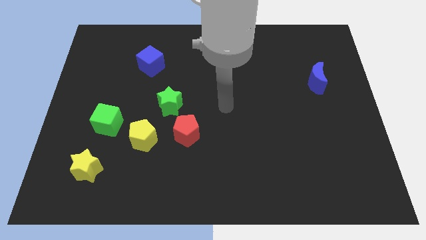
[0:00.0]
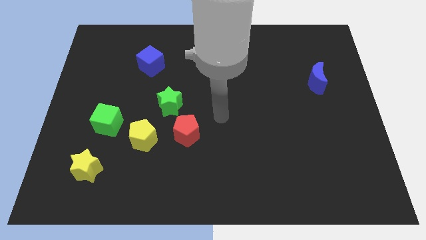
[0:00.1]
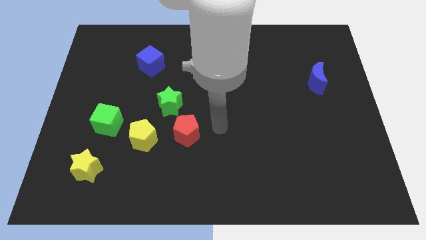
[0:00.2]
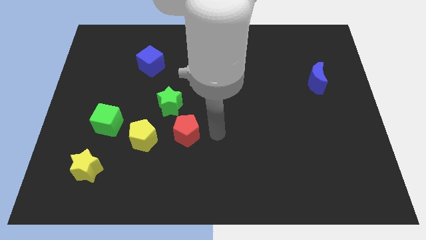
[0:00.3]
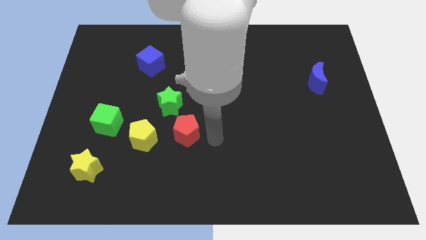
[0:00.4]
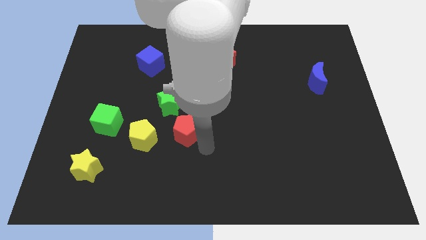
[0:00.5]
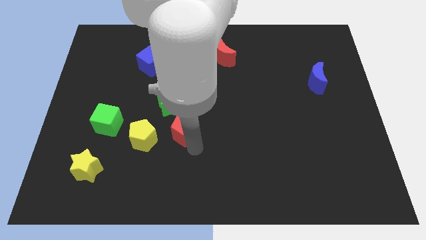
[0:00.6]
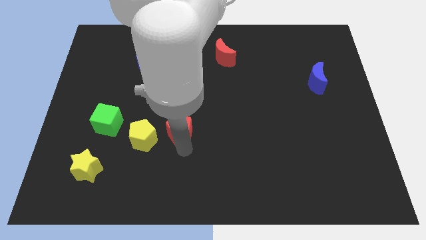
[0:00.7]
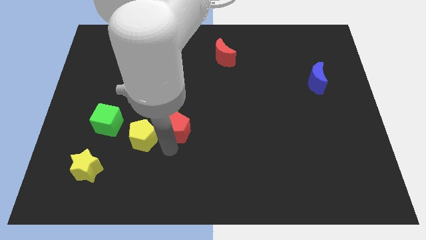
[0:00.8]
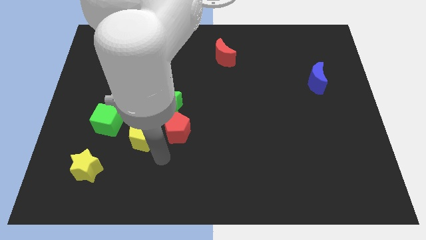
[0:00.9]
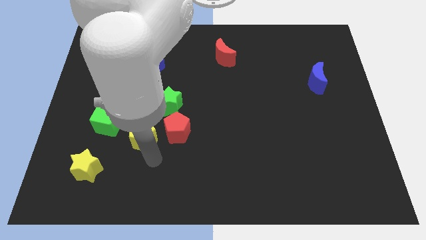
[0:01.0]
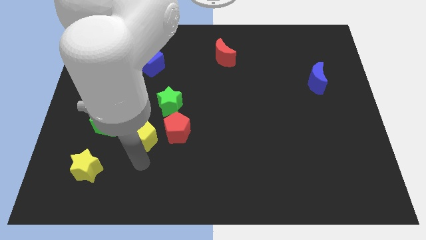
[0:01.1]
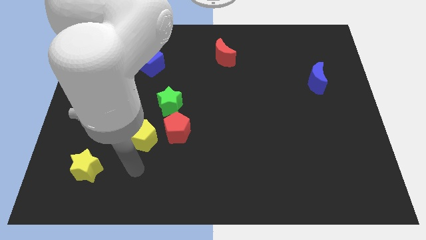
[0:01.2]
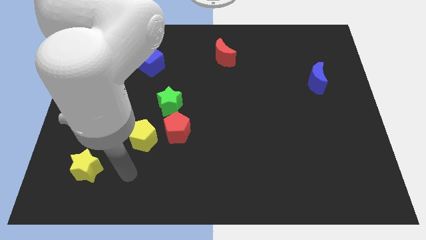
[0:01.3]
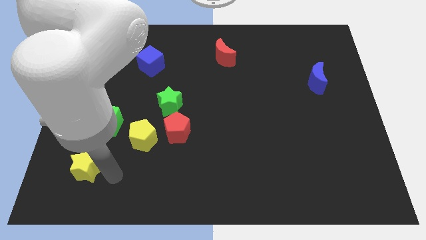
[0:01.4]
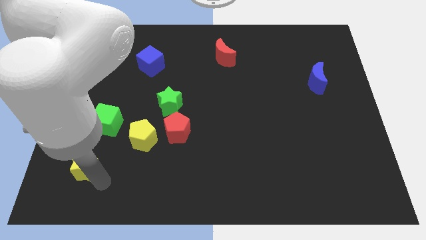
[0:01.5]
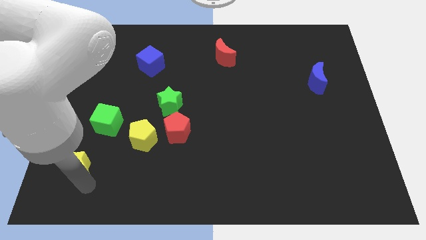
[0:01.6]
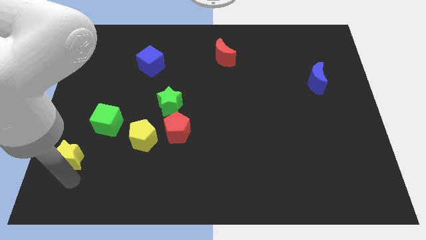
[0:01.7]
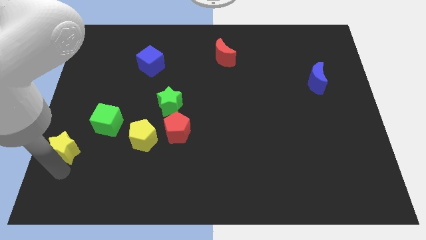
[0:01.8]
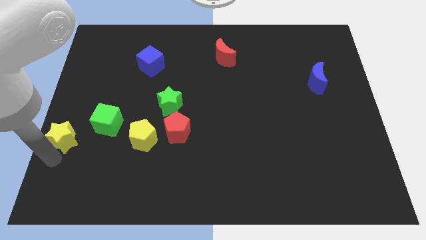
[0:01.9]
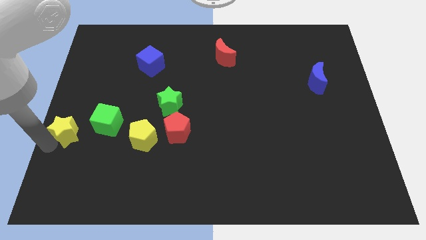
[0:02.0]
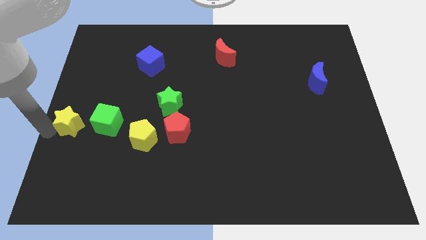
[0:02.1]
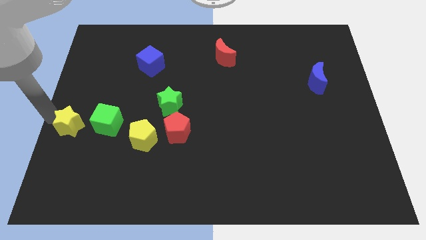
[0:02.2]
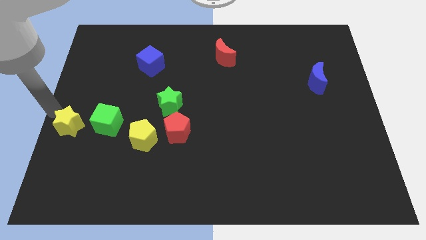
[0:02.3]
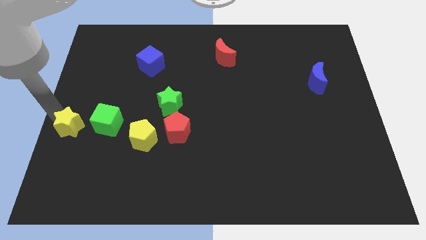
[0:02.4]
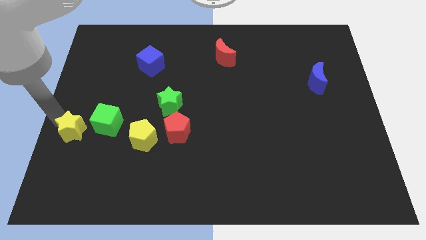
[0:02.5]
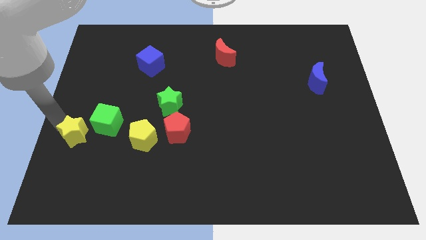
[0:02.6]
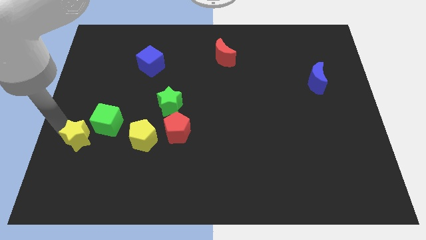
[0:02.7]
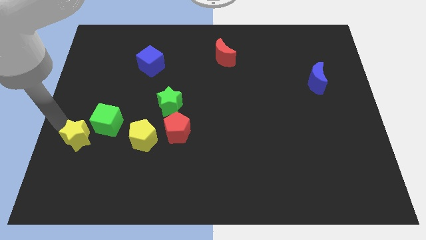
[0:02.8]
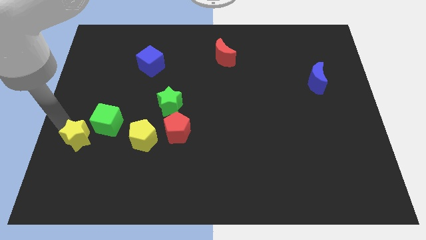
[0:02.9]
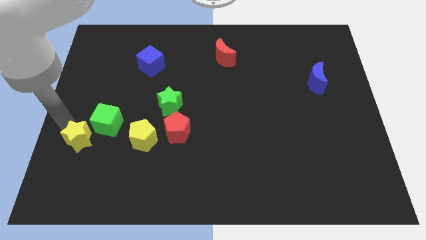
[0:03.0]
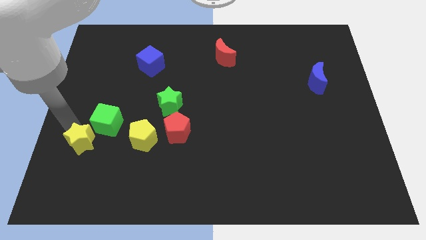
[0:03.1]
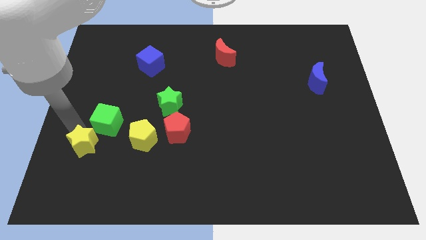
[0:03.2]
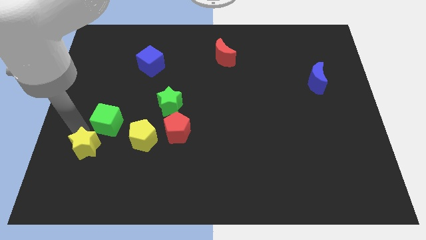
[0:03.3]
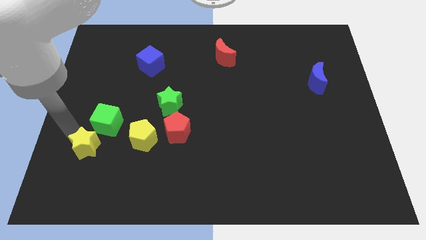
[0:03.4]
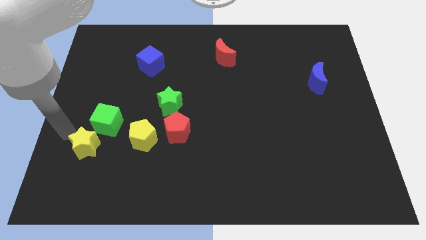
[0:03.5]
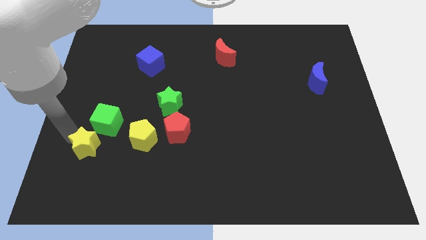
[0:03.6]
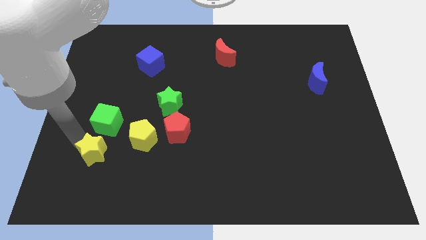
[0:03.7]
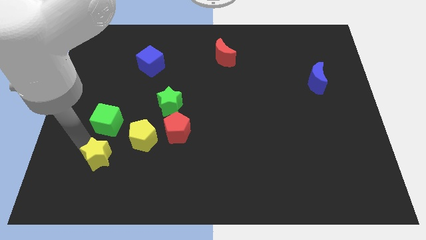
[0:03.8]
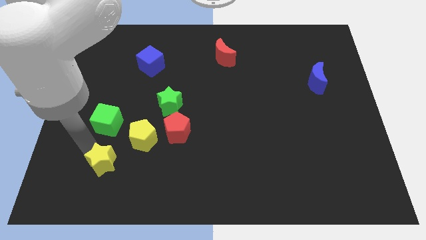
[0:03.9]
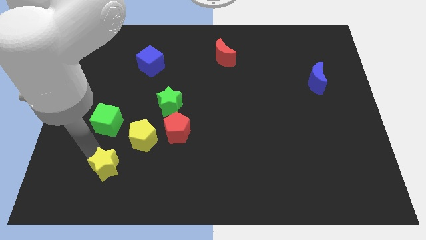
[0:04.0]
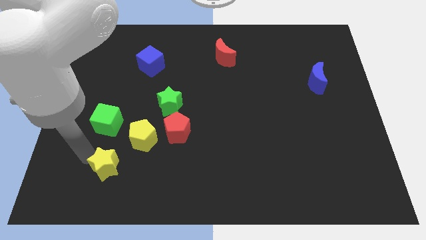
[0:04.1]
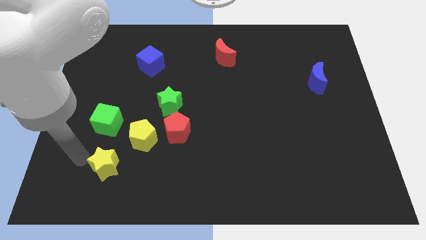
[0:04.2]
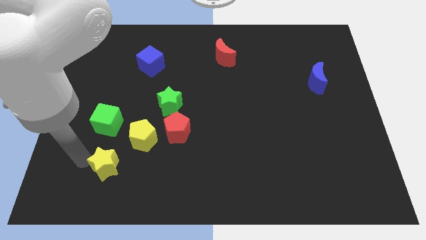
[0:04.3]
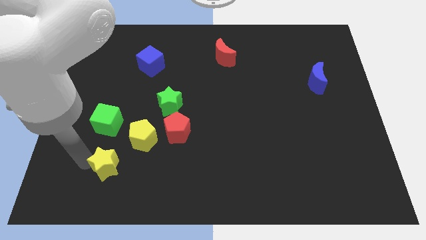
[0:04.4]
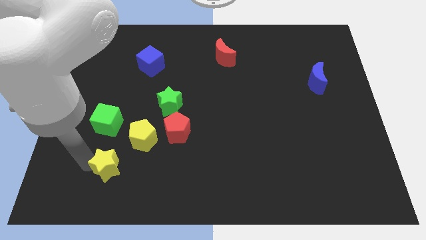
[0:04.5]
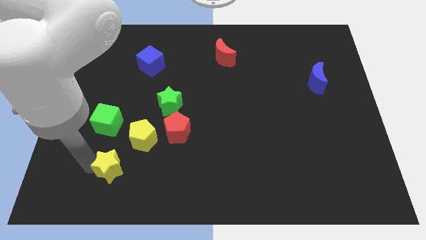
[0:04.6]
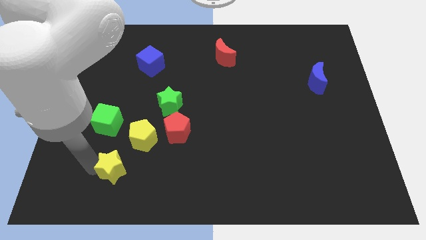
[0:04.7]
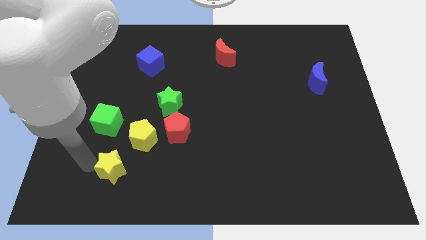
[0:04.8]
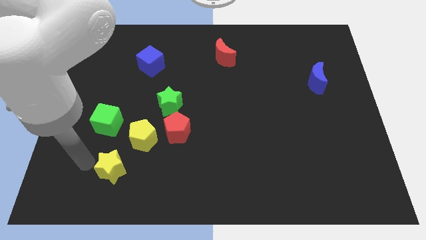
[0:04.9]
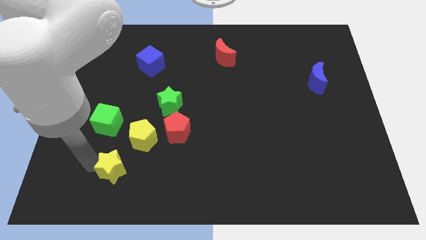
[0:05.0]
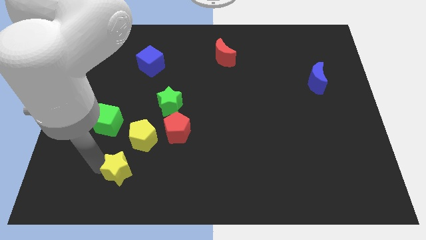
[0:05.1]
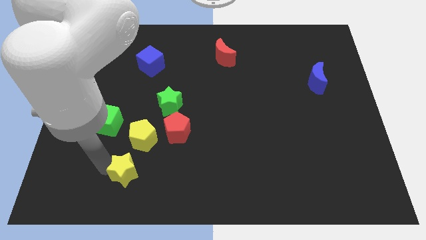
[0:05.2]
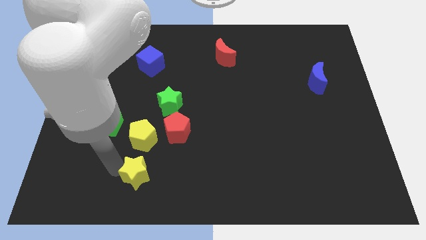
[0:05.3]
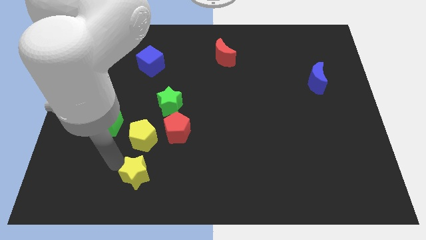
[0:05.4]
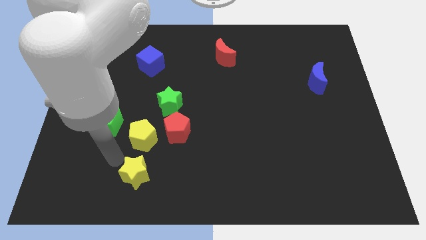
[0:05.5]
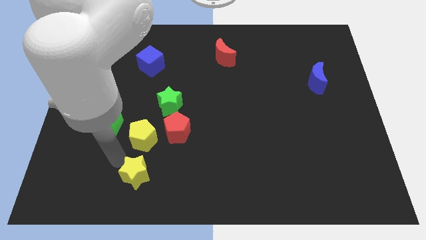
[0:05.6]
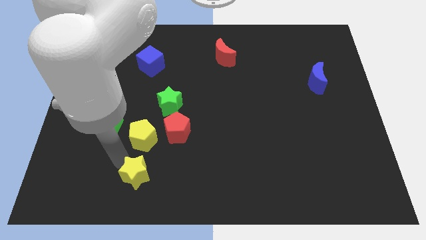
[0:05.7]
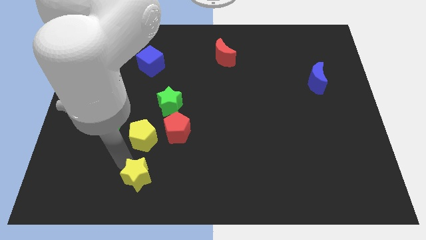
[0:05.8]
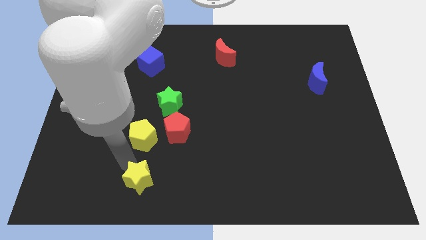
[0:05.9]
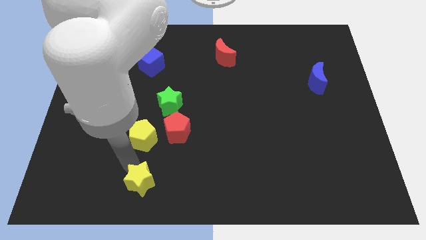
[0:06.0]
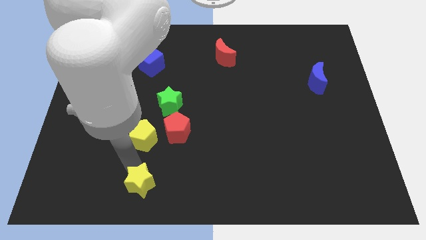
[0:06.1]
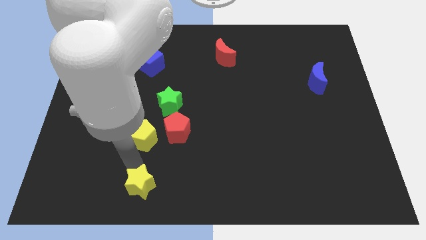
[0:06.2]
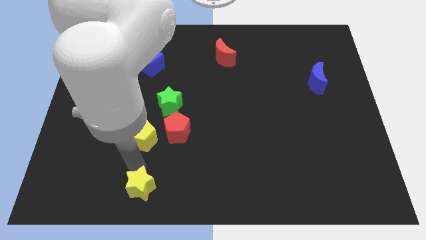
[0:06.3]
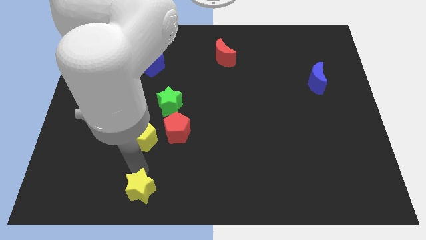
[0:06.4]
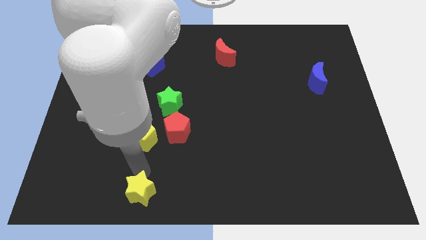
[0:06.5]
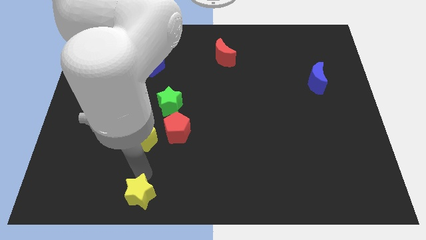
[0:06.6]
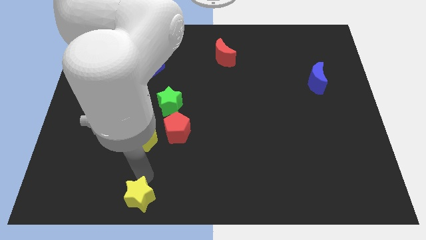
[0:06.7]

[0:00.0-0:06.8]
push the yellow star to the bottom side

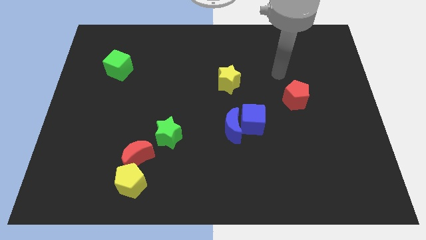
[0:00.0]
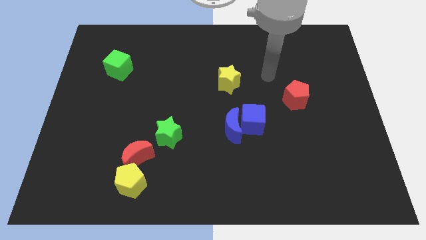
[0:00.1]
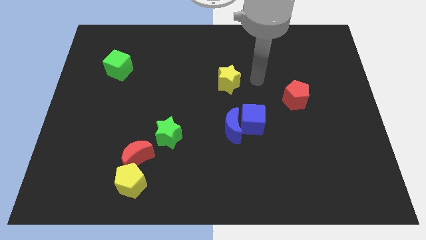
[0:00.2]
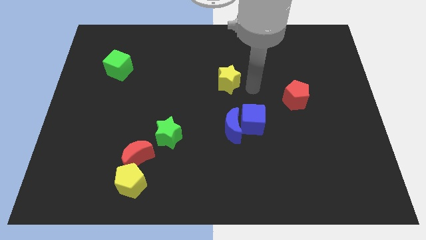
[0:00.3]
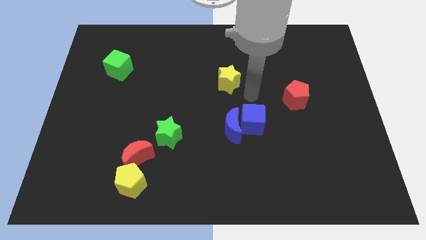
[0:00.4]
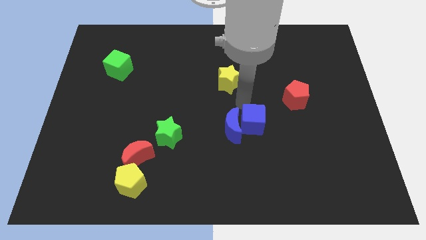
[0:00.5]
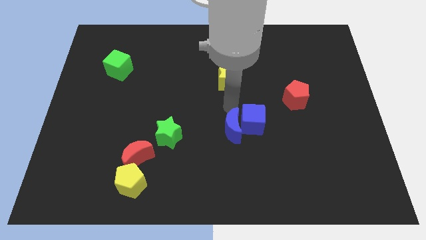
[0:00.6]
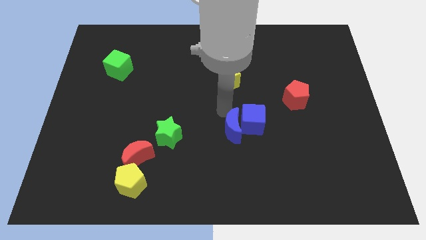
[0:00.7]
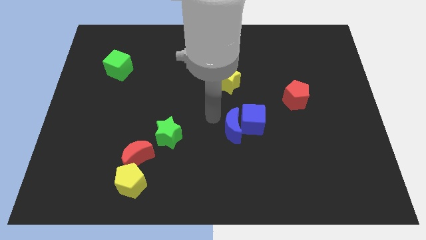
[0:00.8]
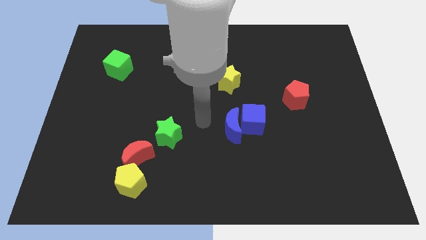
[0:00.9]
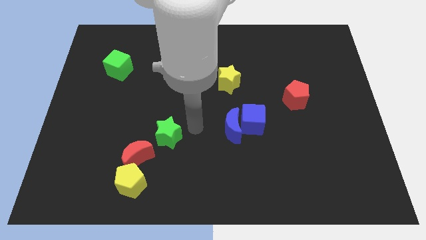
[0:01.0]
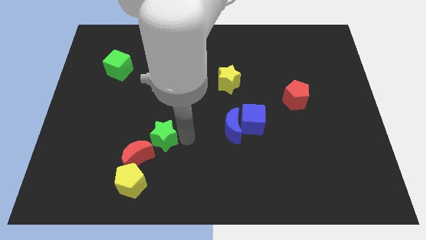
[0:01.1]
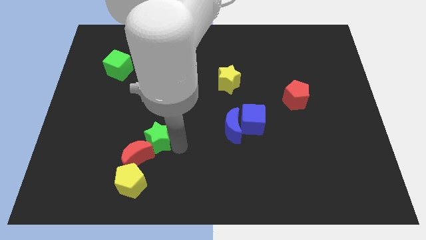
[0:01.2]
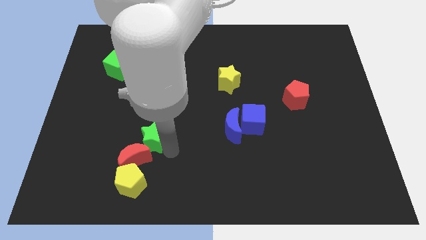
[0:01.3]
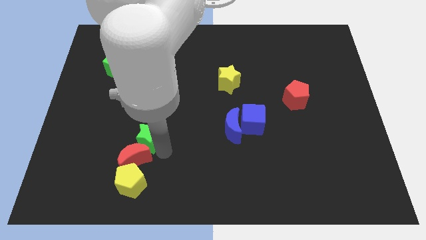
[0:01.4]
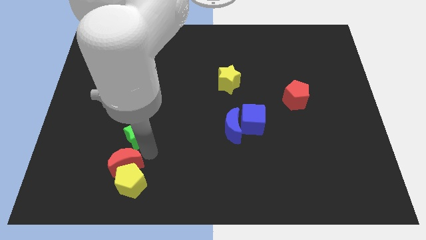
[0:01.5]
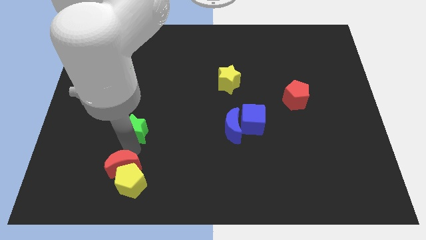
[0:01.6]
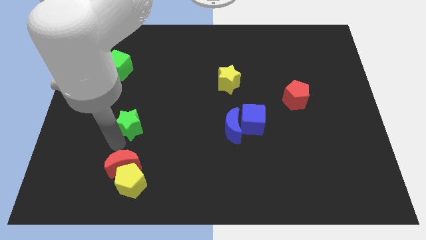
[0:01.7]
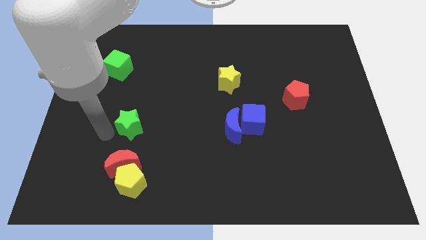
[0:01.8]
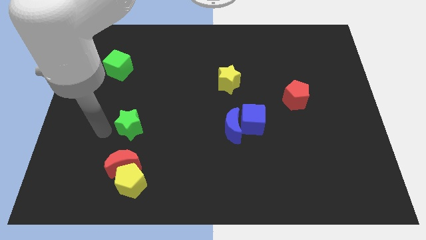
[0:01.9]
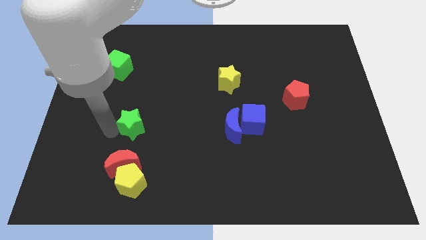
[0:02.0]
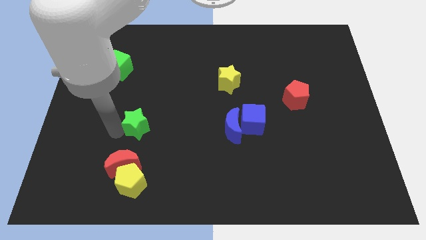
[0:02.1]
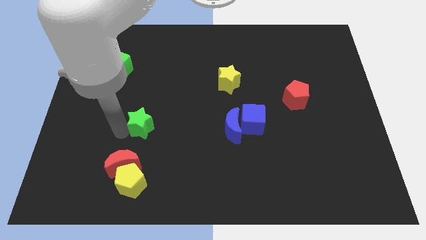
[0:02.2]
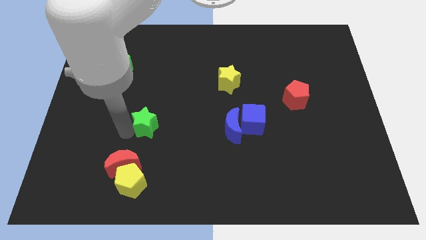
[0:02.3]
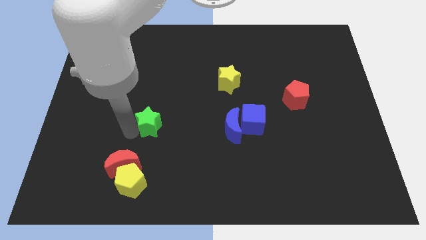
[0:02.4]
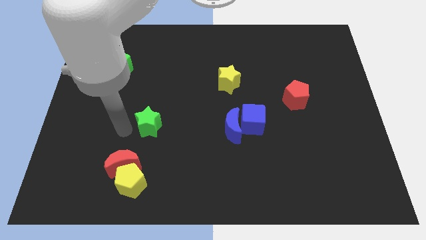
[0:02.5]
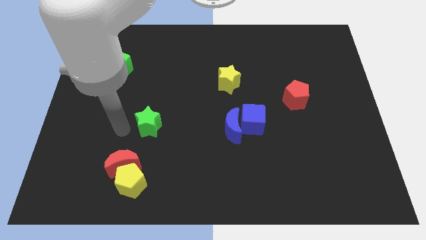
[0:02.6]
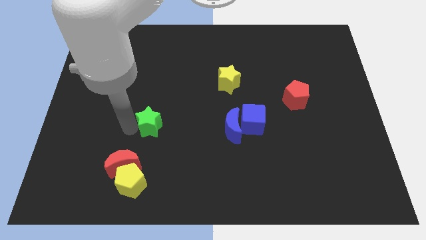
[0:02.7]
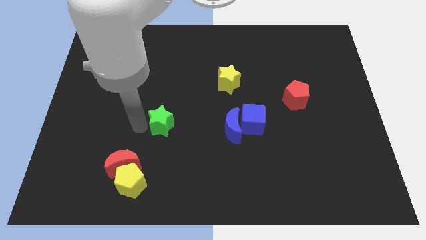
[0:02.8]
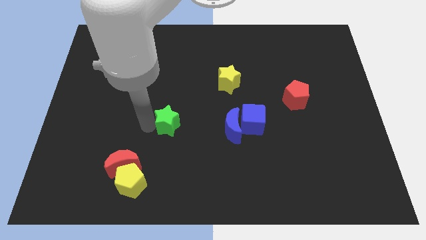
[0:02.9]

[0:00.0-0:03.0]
push the green star to the center
